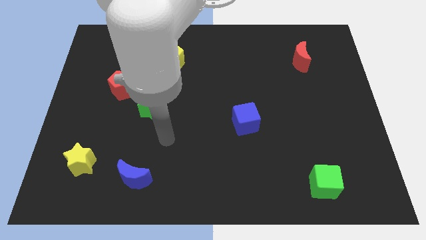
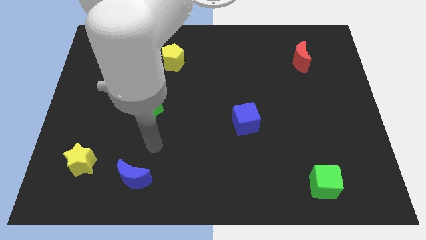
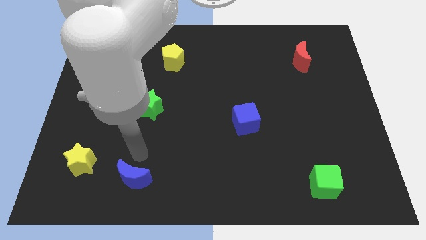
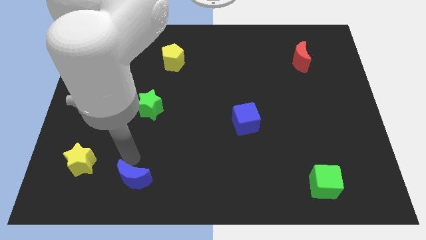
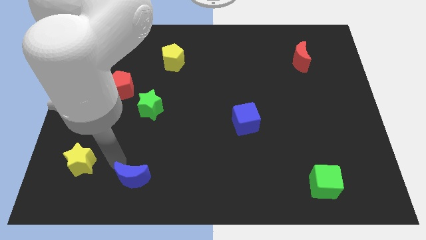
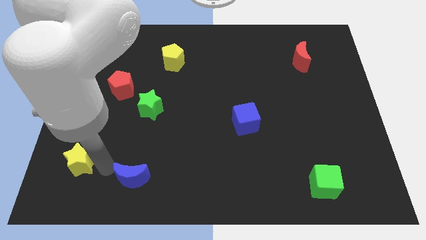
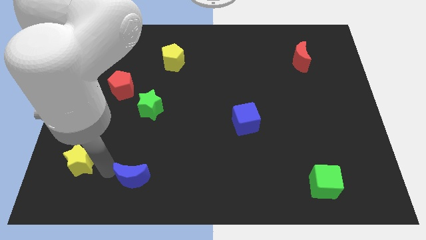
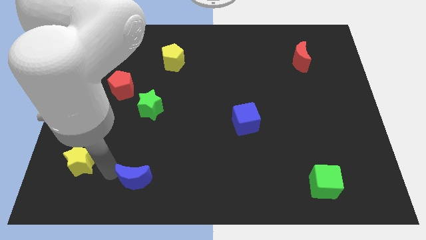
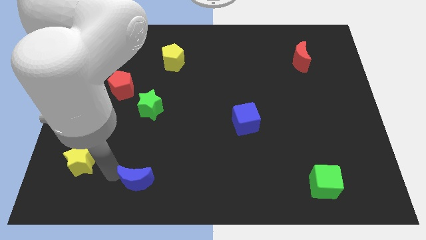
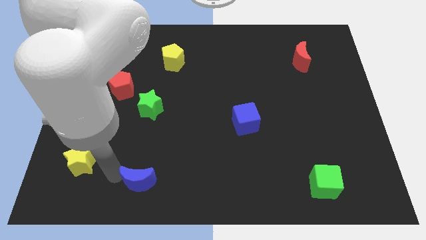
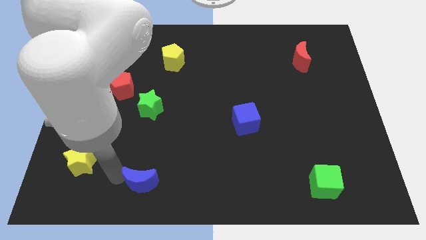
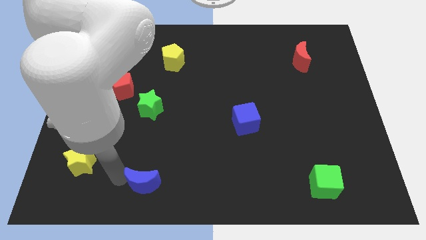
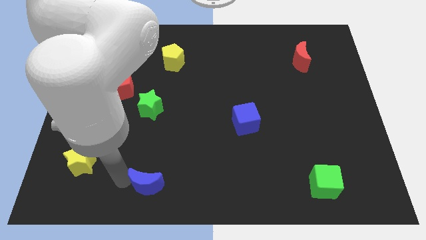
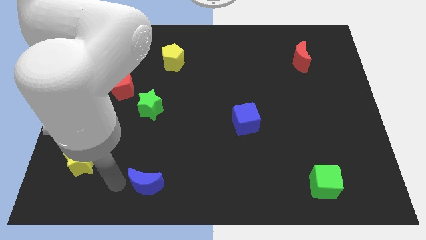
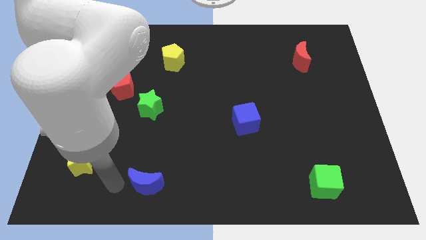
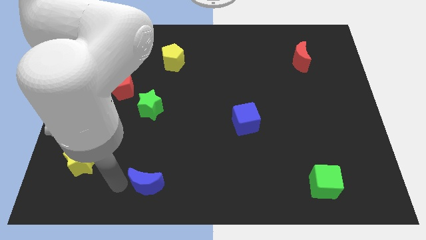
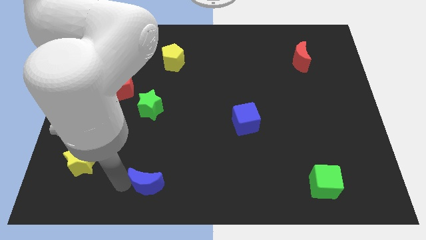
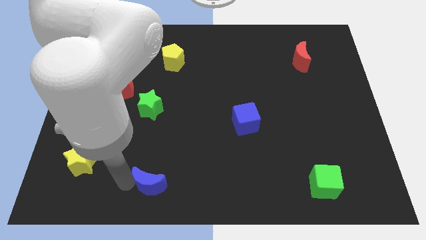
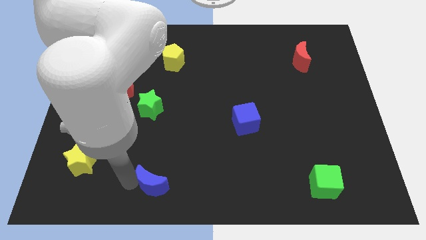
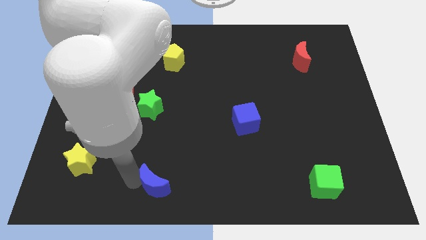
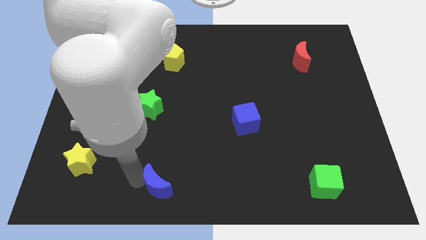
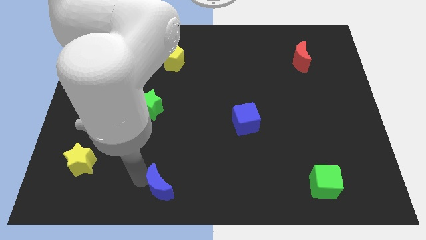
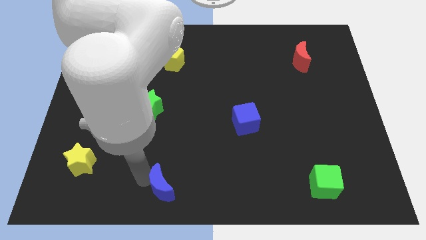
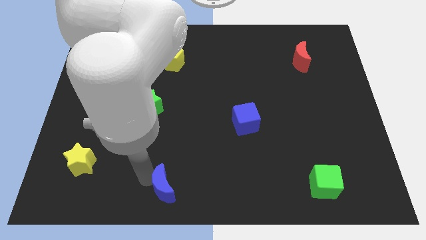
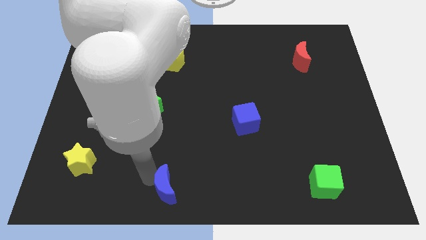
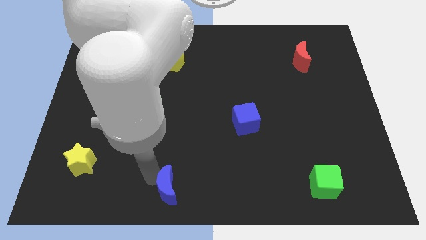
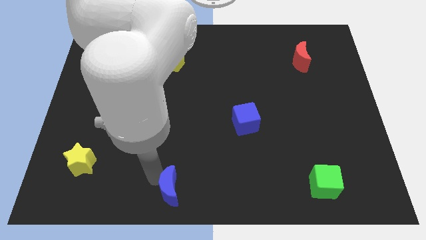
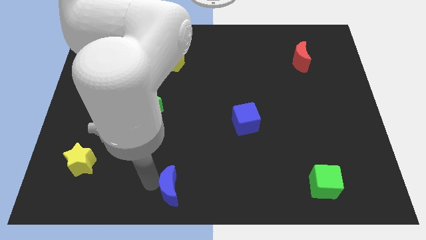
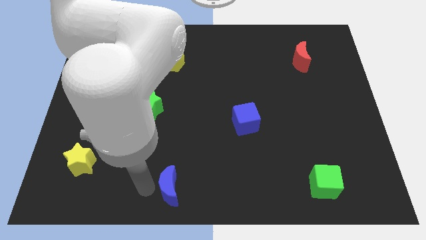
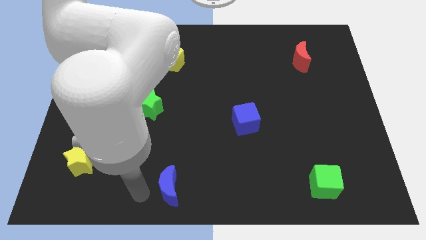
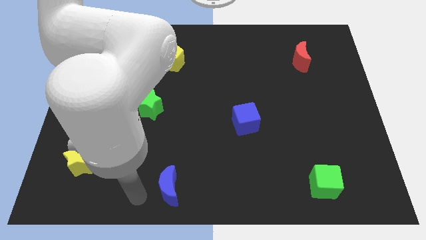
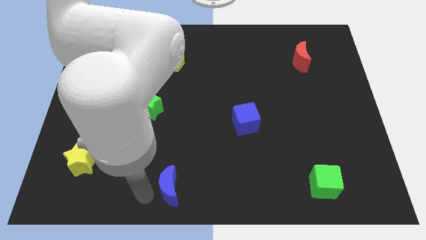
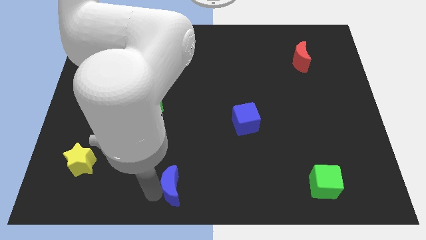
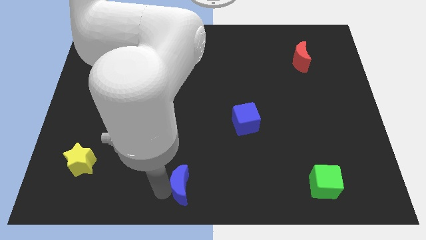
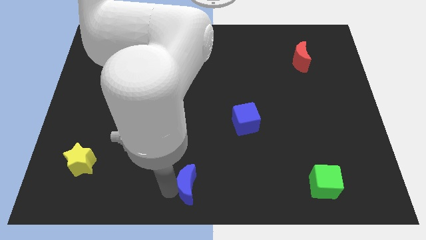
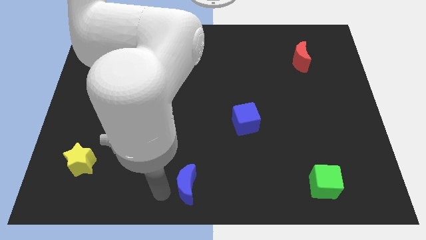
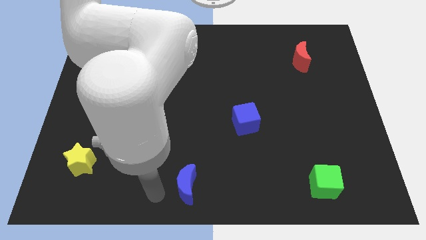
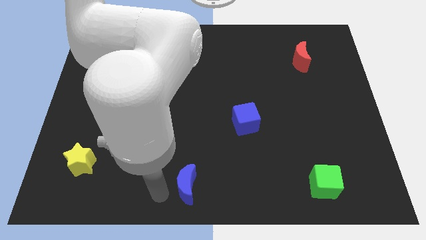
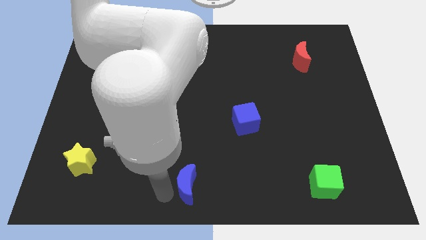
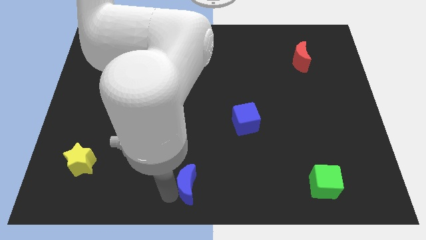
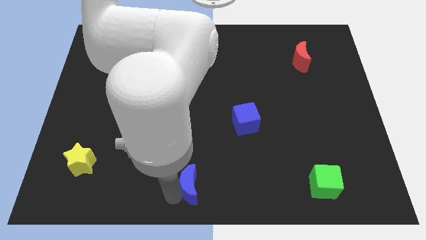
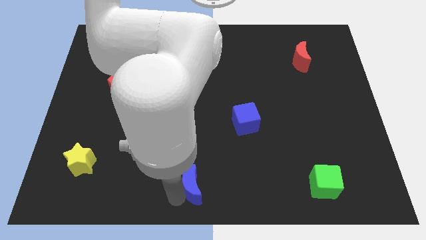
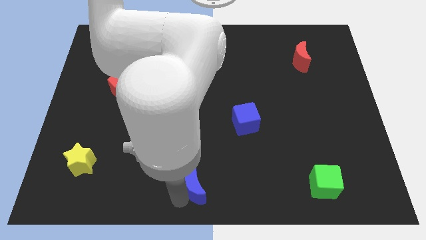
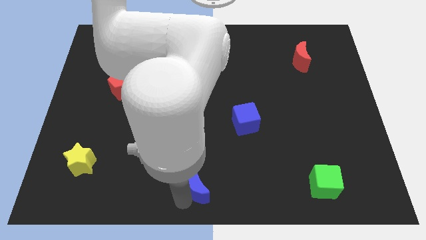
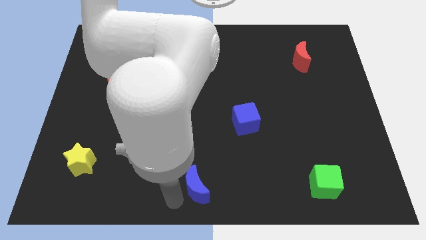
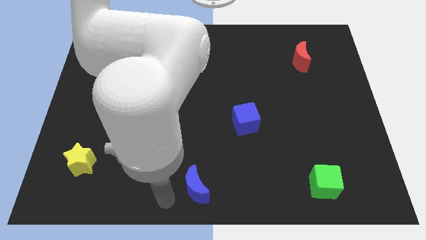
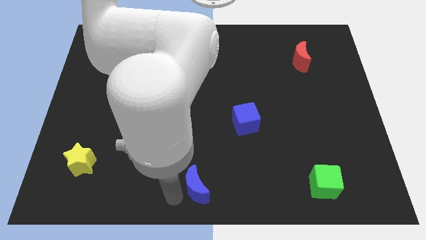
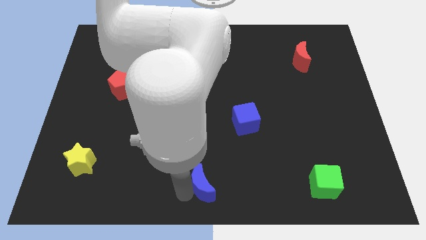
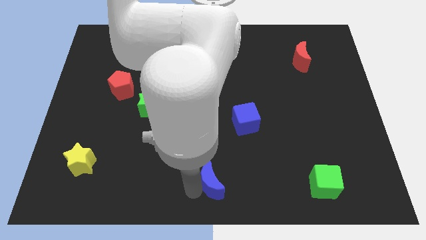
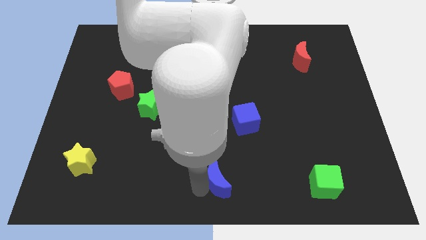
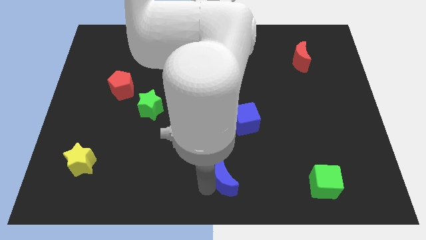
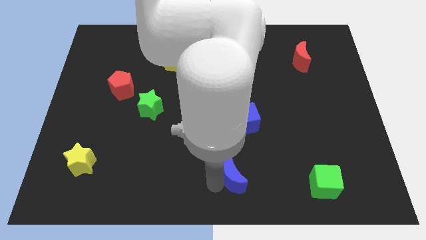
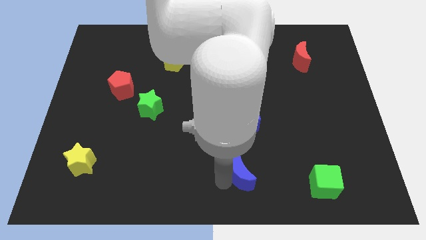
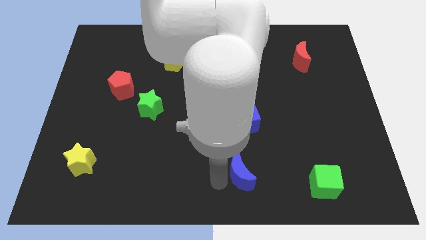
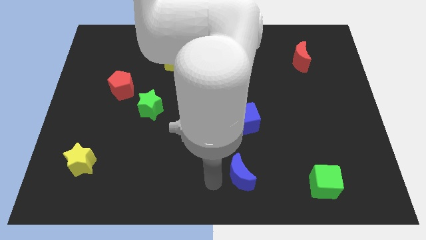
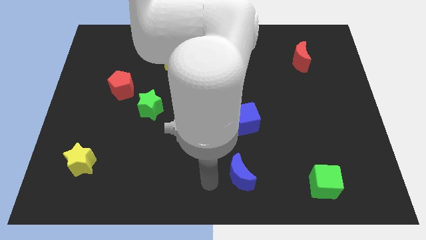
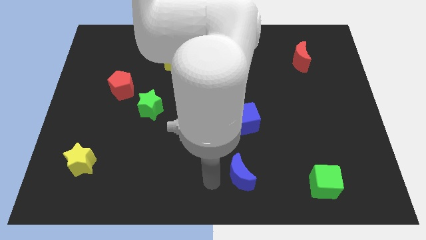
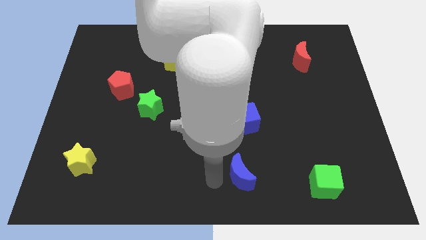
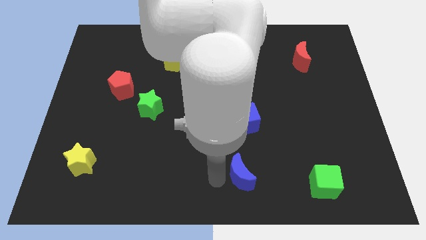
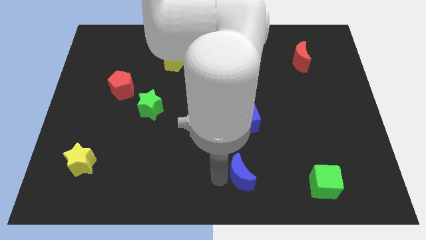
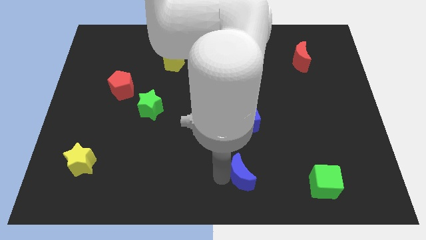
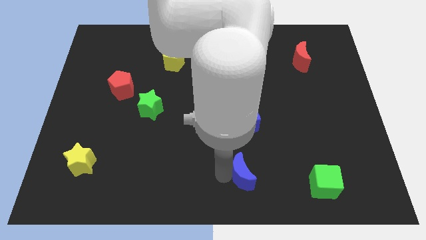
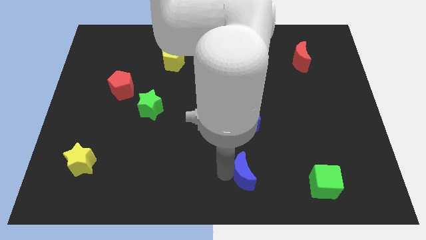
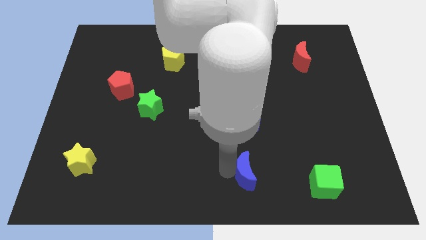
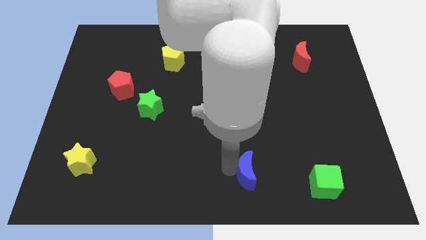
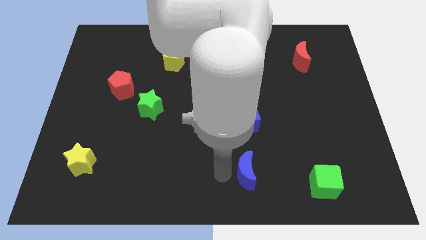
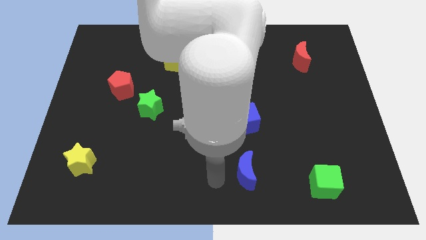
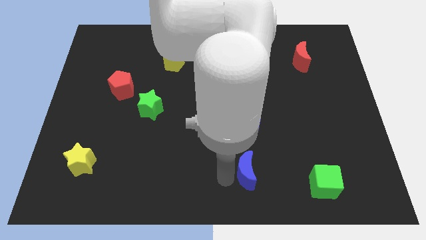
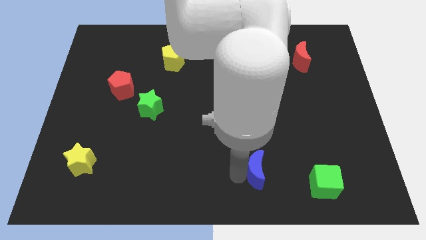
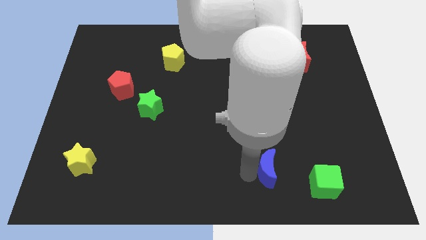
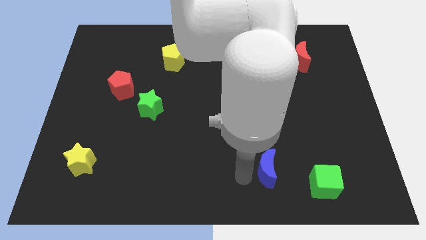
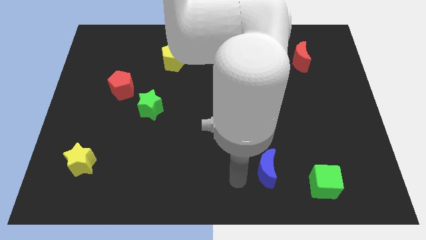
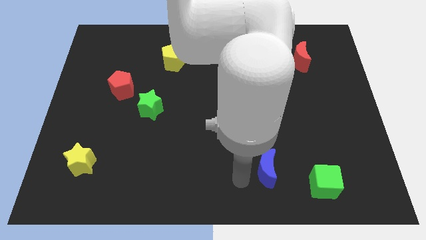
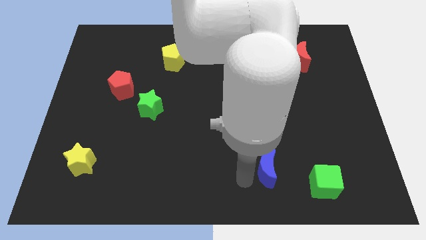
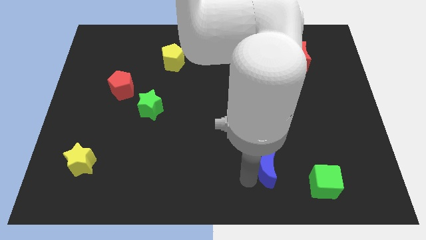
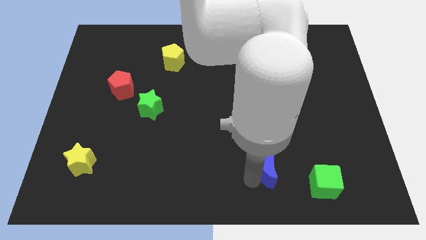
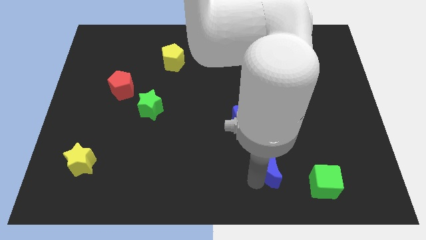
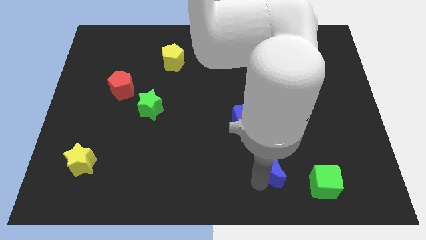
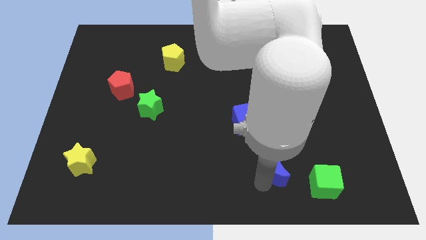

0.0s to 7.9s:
put the blue moon diagonally up and to the left of the green cube
